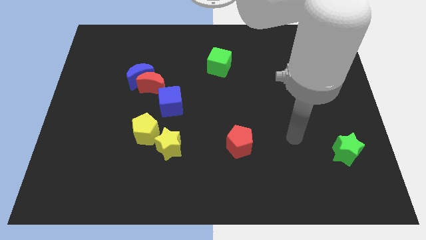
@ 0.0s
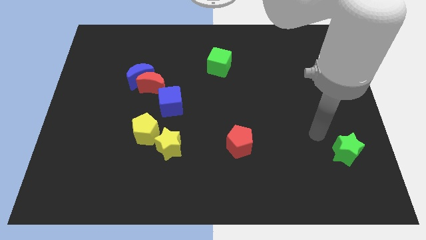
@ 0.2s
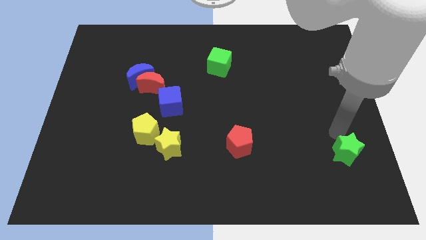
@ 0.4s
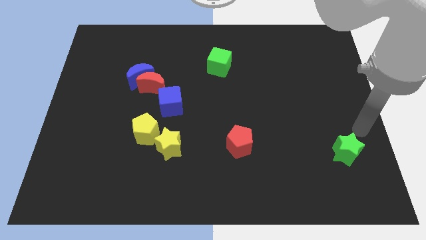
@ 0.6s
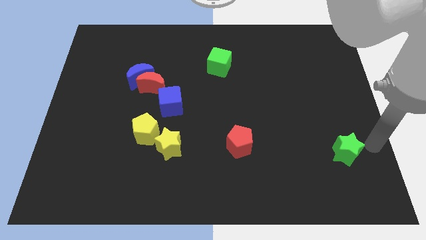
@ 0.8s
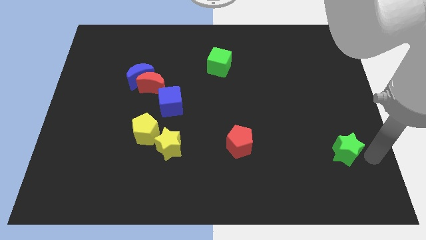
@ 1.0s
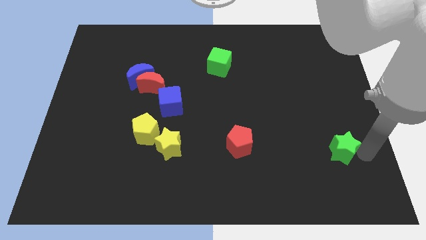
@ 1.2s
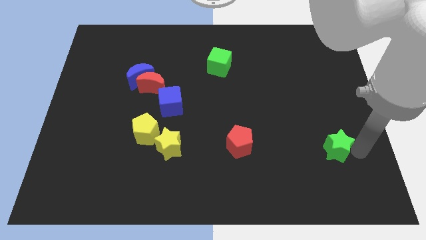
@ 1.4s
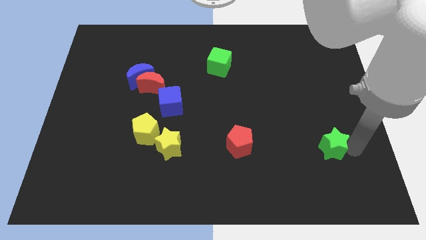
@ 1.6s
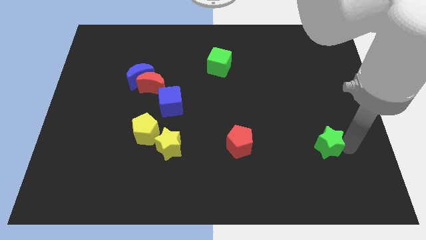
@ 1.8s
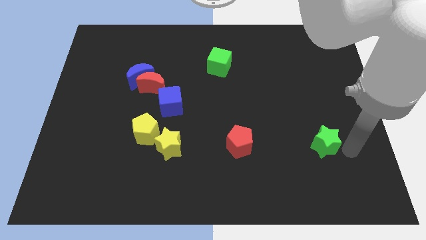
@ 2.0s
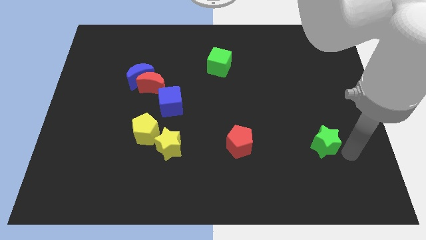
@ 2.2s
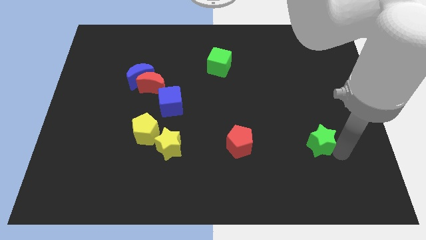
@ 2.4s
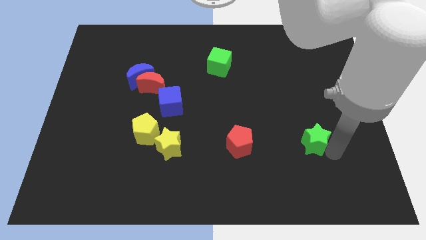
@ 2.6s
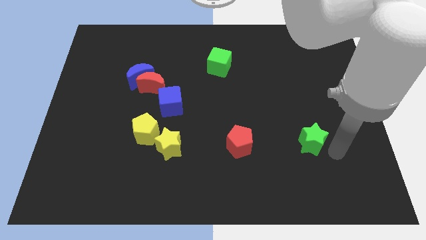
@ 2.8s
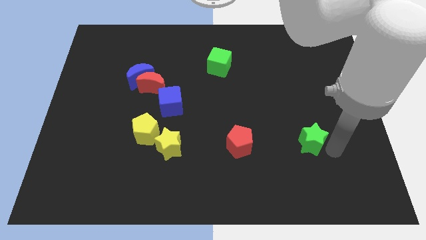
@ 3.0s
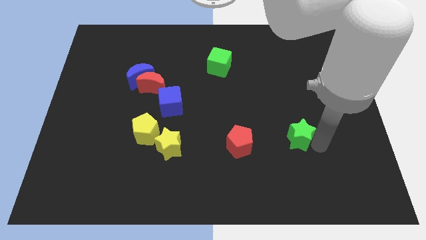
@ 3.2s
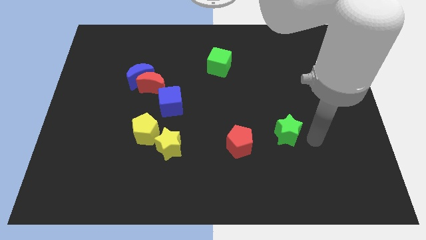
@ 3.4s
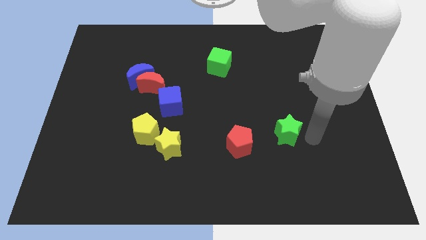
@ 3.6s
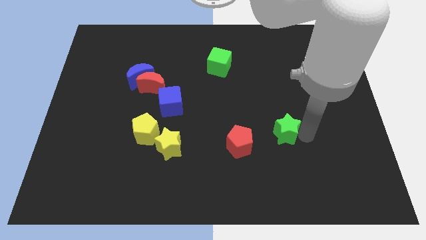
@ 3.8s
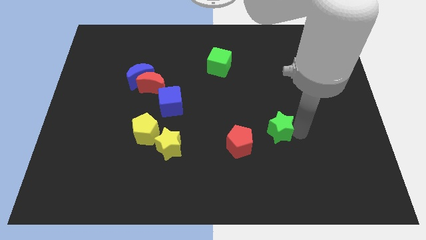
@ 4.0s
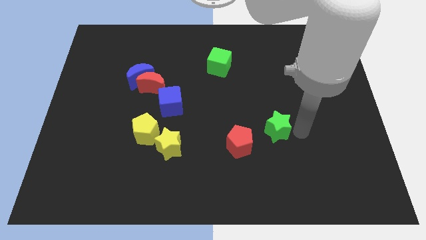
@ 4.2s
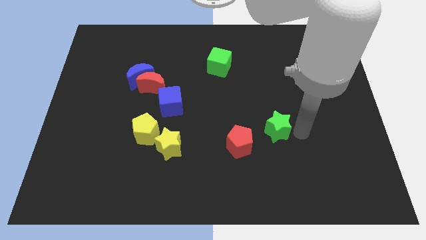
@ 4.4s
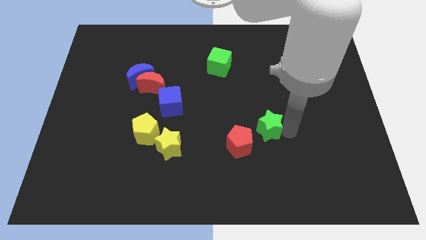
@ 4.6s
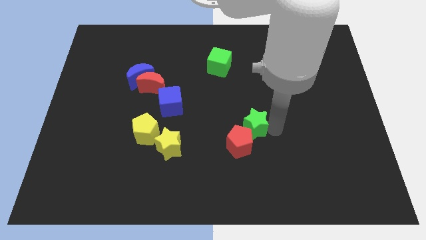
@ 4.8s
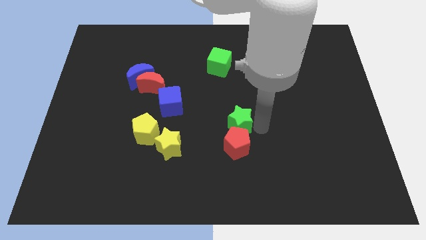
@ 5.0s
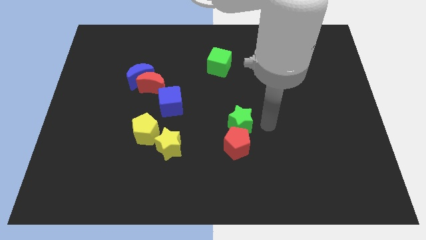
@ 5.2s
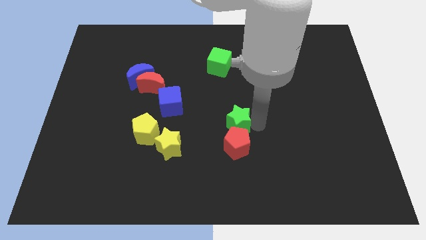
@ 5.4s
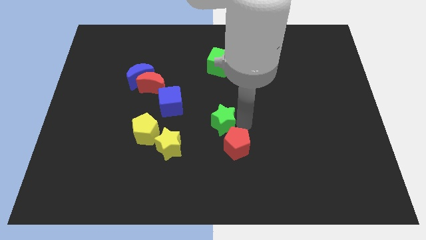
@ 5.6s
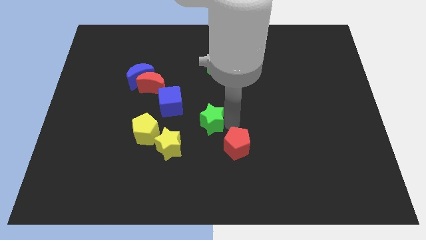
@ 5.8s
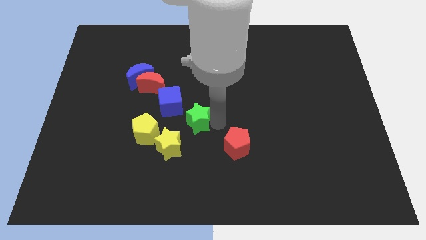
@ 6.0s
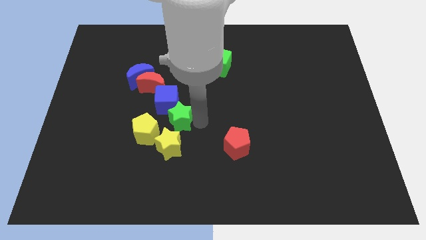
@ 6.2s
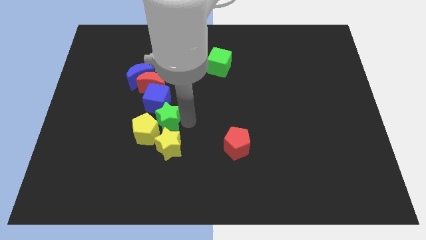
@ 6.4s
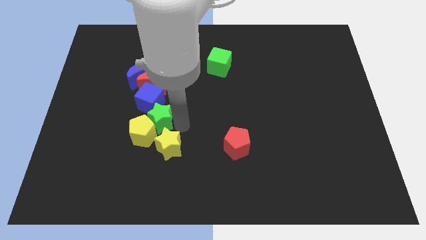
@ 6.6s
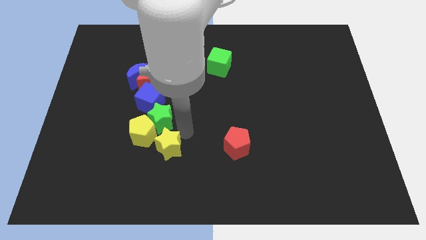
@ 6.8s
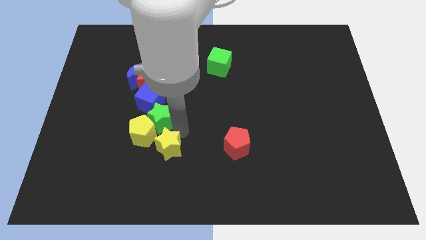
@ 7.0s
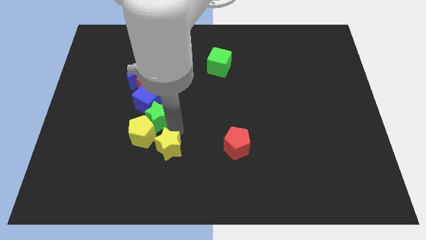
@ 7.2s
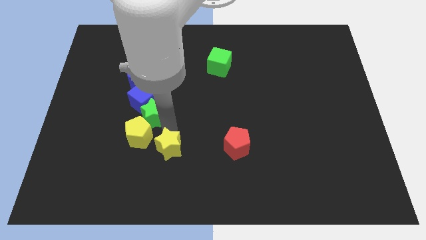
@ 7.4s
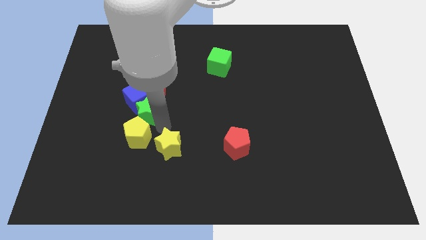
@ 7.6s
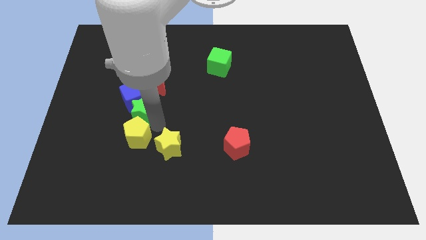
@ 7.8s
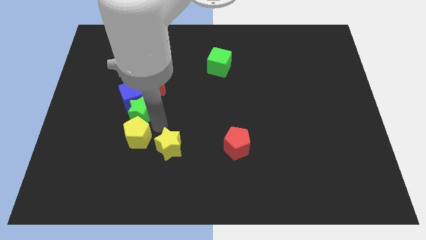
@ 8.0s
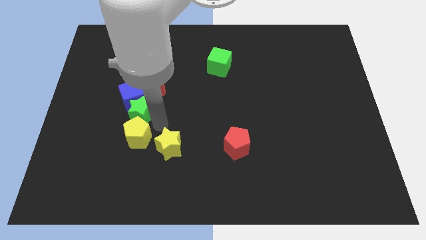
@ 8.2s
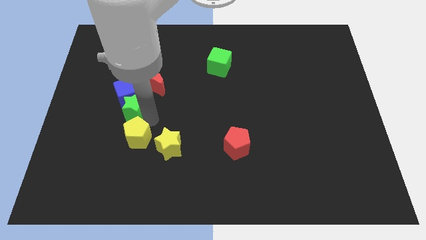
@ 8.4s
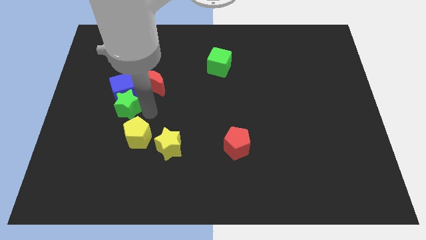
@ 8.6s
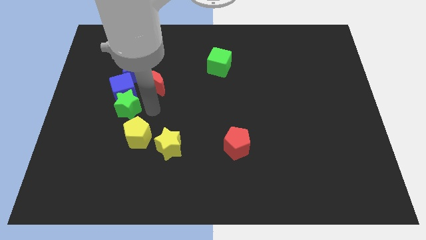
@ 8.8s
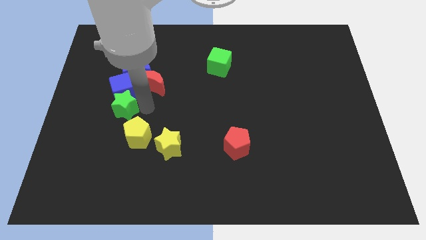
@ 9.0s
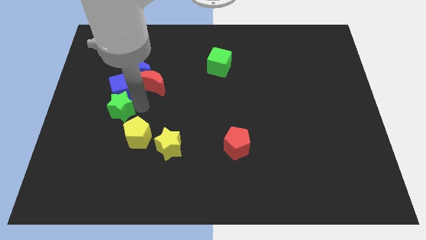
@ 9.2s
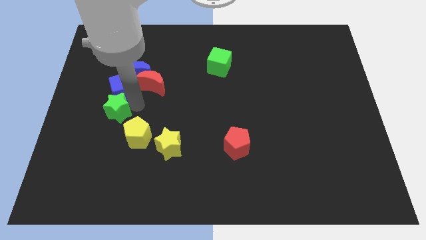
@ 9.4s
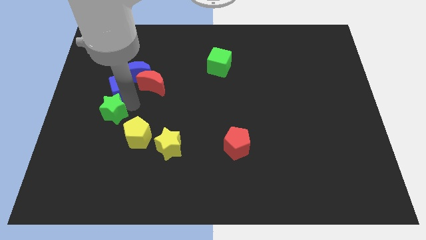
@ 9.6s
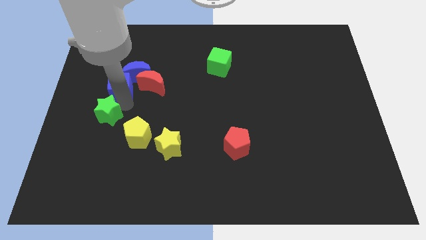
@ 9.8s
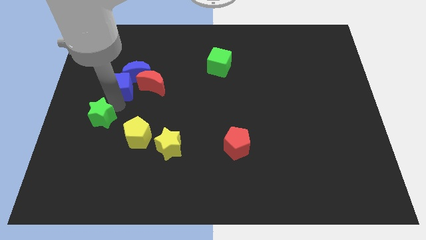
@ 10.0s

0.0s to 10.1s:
move the green star to the left side

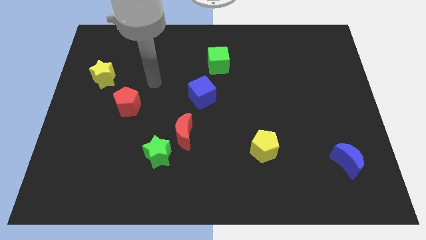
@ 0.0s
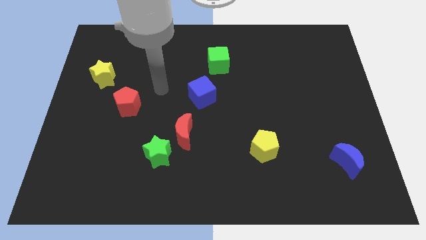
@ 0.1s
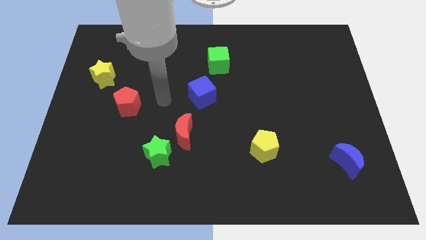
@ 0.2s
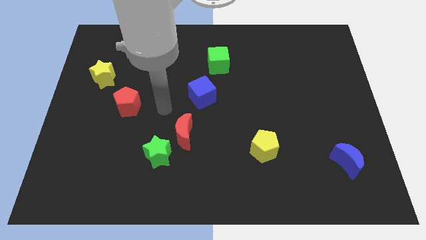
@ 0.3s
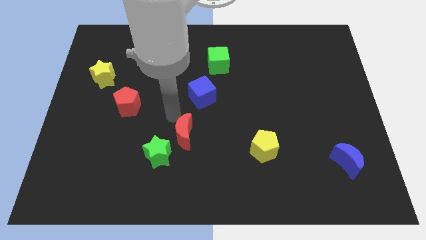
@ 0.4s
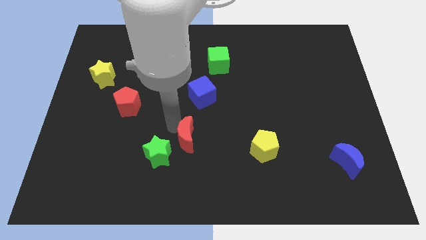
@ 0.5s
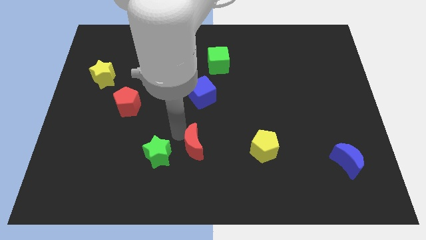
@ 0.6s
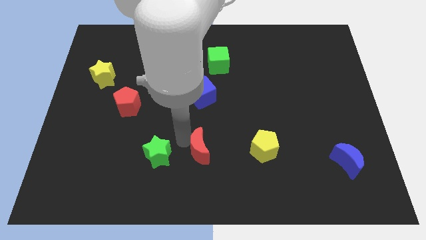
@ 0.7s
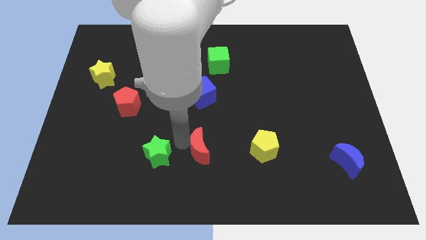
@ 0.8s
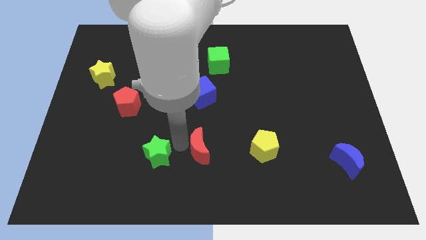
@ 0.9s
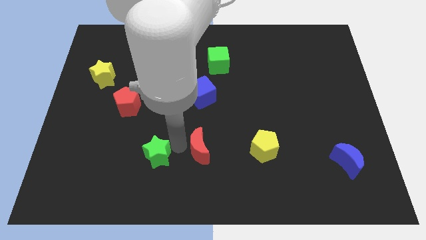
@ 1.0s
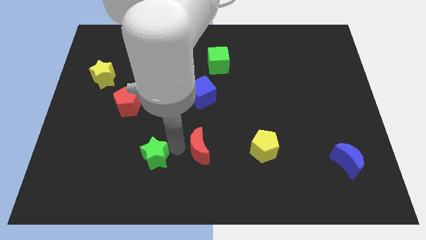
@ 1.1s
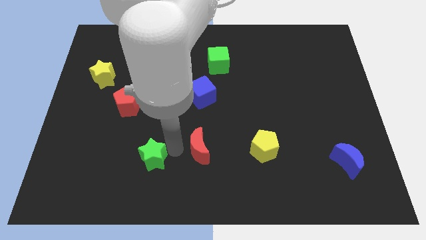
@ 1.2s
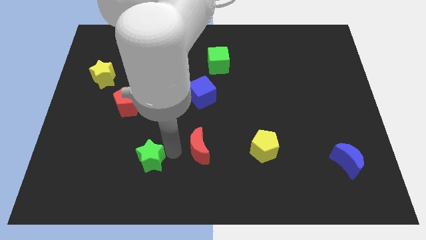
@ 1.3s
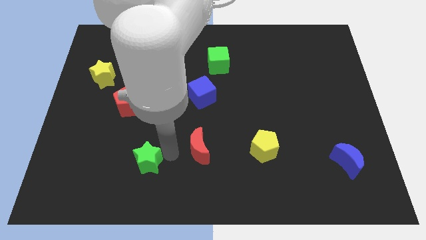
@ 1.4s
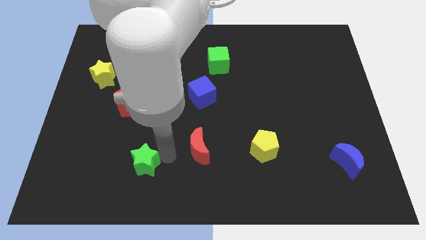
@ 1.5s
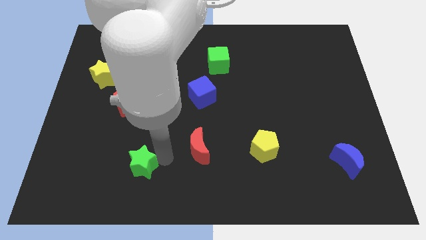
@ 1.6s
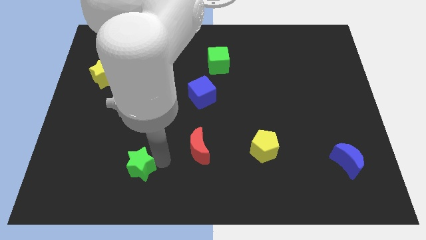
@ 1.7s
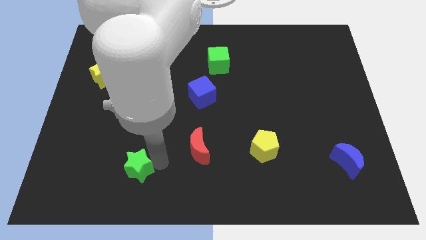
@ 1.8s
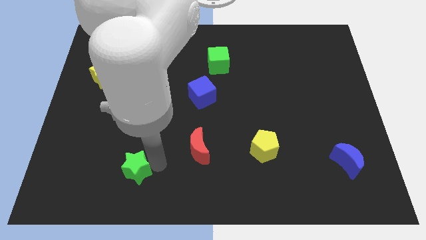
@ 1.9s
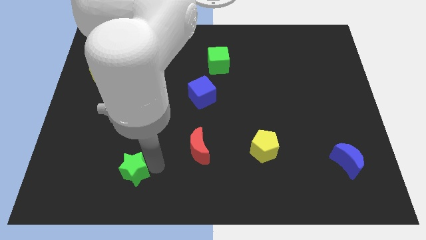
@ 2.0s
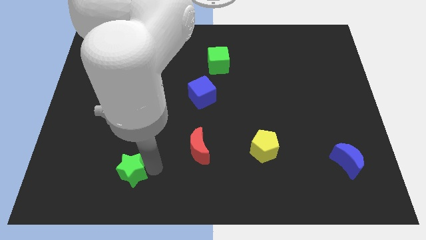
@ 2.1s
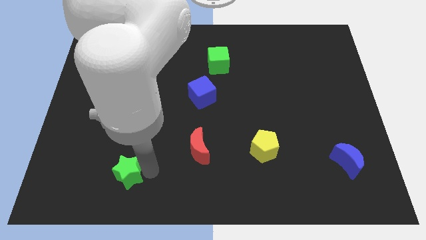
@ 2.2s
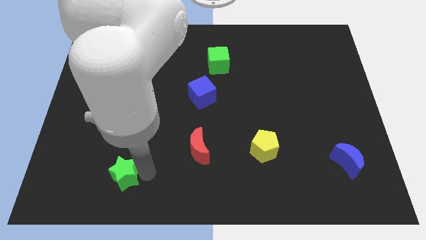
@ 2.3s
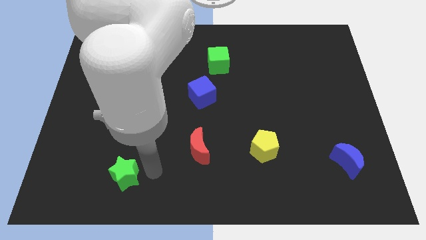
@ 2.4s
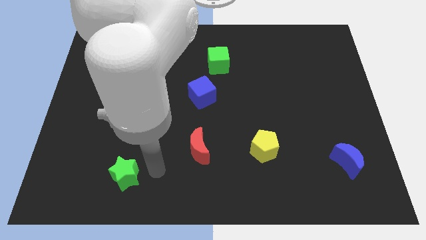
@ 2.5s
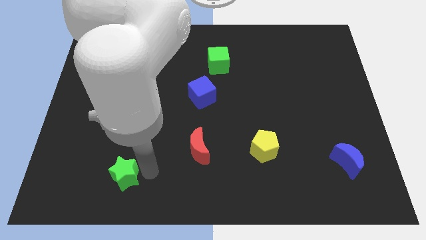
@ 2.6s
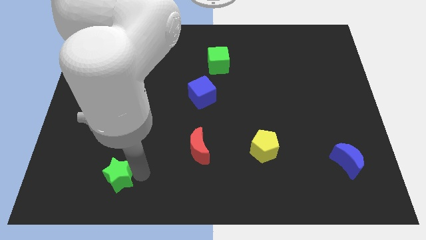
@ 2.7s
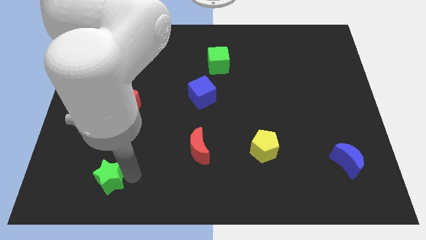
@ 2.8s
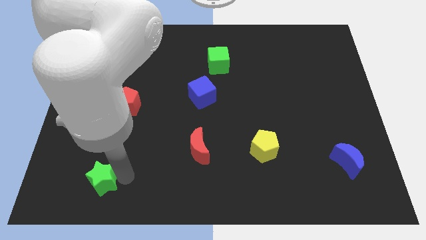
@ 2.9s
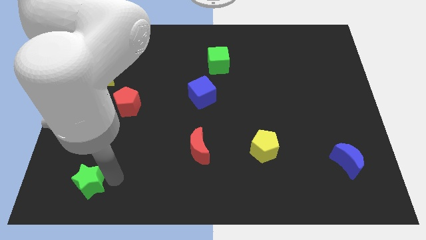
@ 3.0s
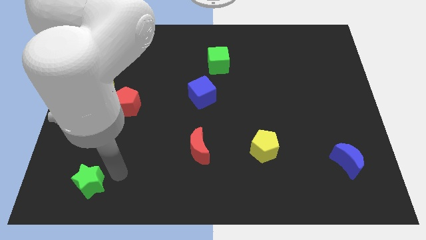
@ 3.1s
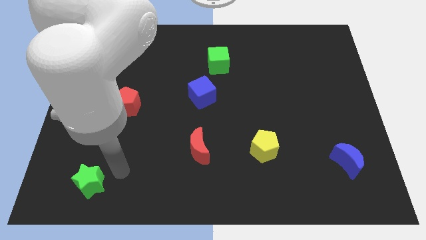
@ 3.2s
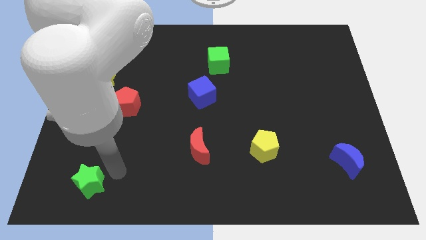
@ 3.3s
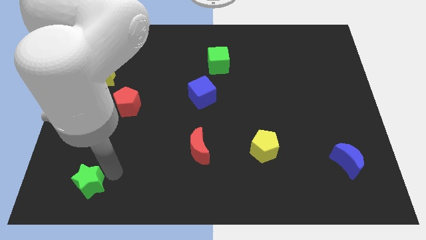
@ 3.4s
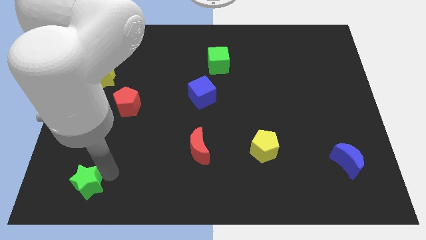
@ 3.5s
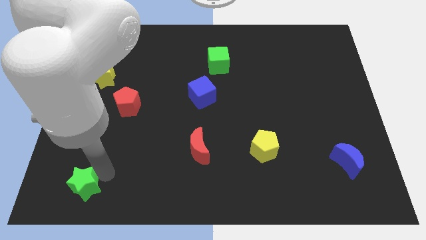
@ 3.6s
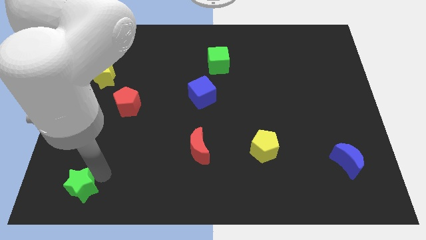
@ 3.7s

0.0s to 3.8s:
push the green star to the bottom left corner
